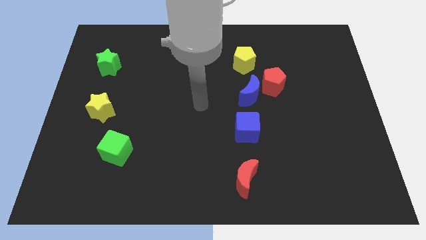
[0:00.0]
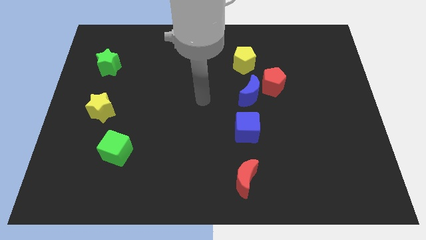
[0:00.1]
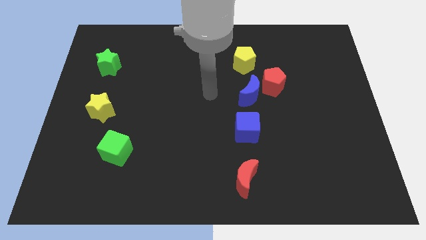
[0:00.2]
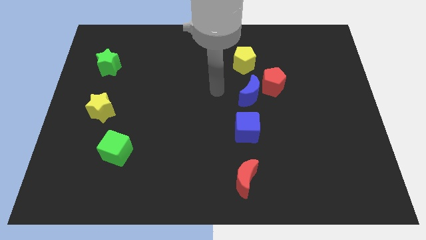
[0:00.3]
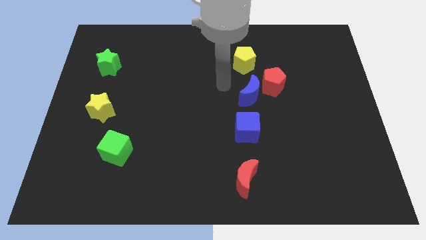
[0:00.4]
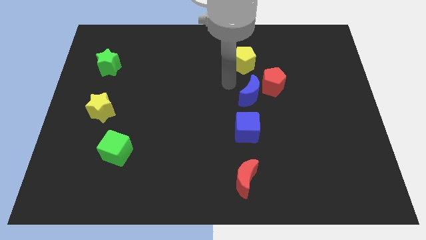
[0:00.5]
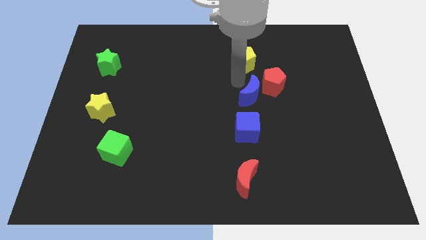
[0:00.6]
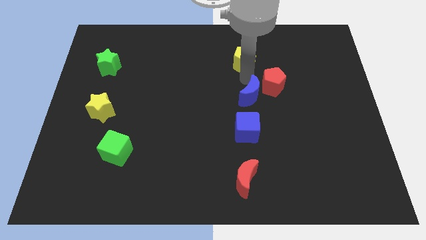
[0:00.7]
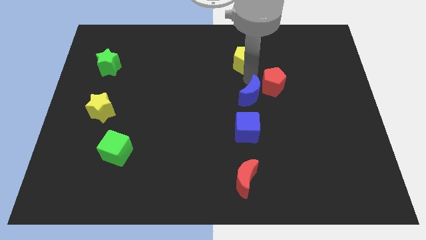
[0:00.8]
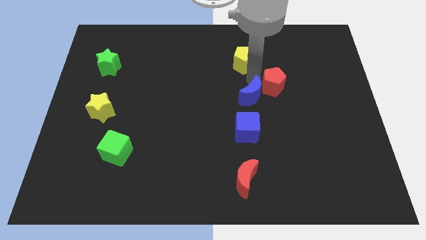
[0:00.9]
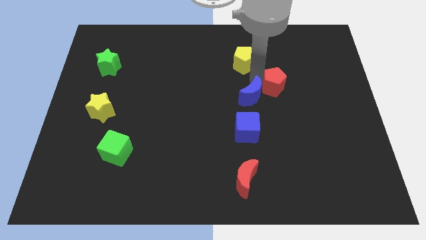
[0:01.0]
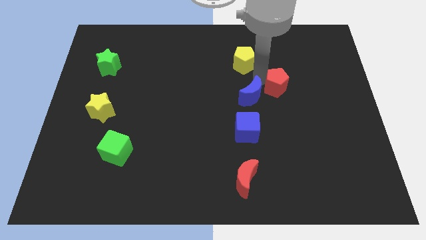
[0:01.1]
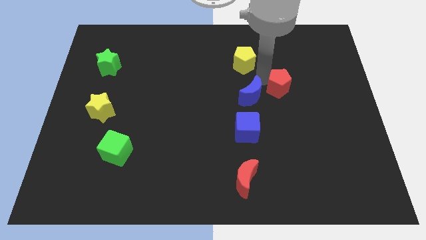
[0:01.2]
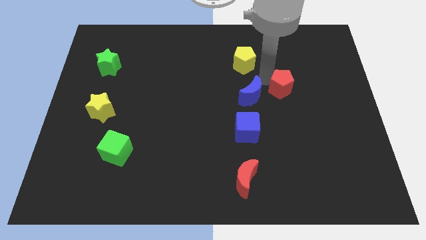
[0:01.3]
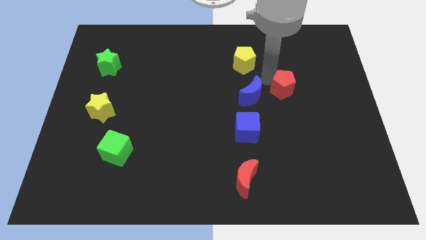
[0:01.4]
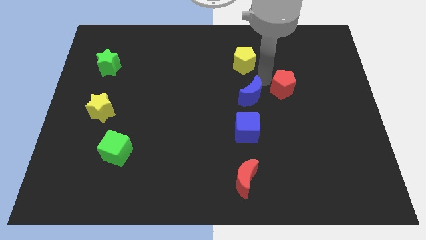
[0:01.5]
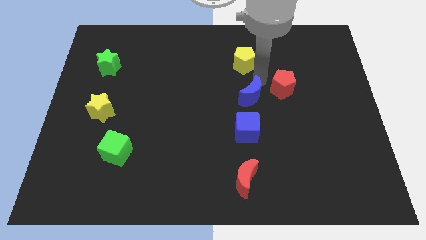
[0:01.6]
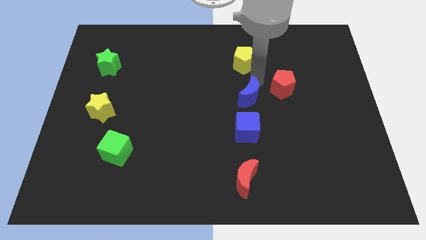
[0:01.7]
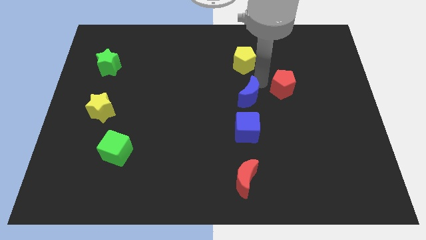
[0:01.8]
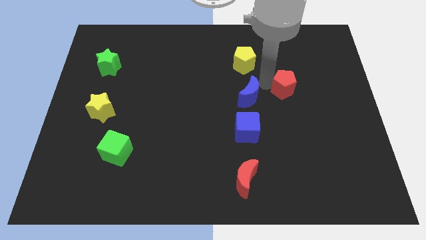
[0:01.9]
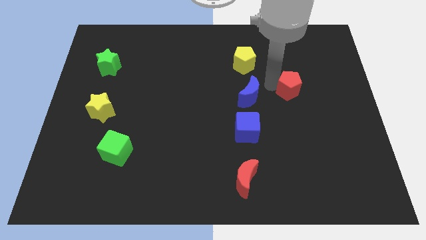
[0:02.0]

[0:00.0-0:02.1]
separate the red pentagon from the blue moon and yellow pentagon

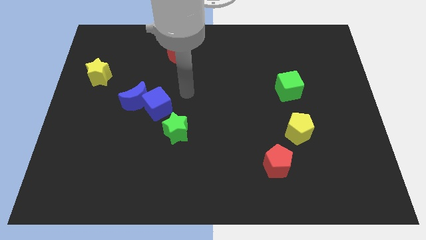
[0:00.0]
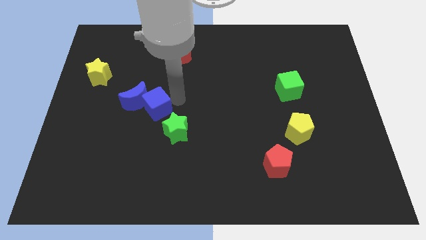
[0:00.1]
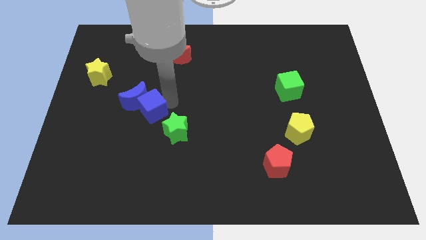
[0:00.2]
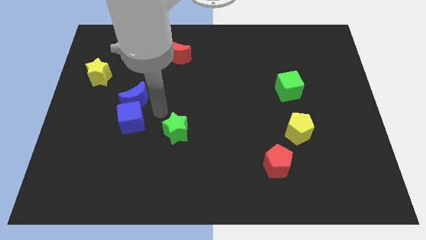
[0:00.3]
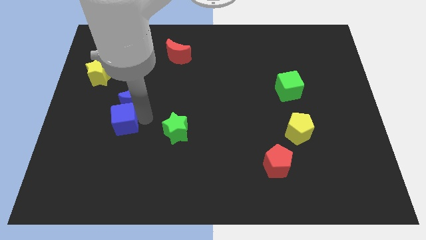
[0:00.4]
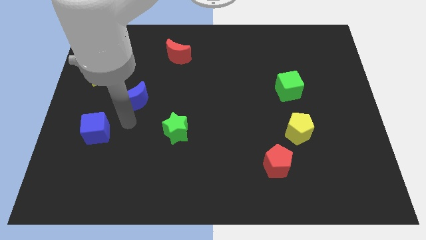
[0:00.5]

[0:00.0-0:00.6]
pull the blue moon apart from the blue cube

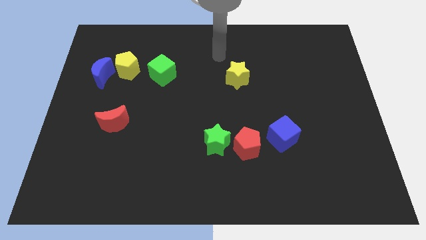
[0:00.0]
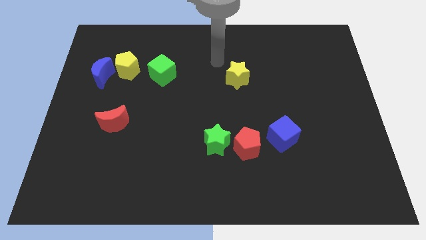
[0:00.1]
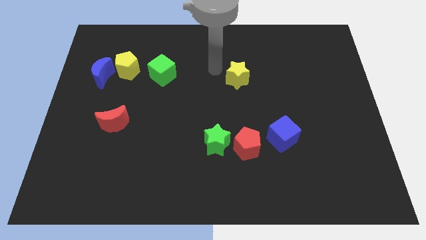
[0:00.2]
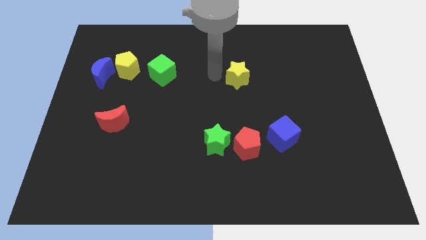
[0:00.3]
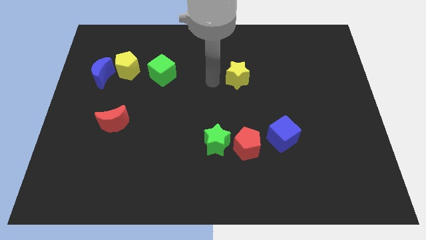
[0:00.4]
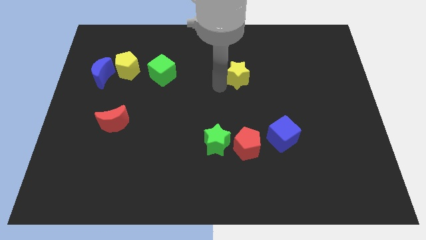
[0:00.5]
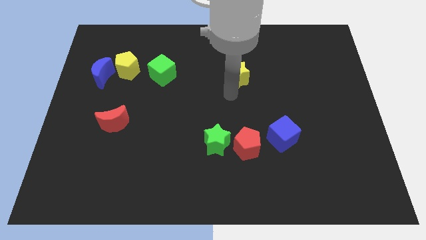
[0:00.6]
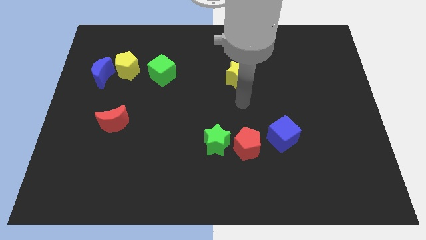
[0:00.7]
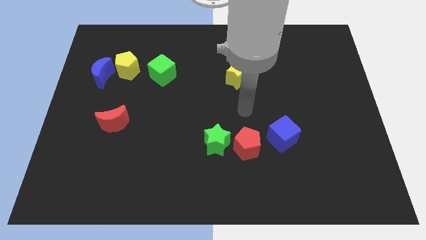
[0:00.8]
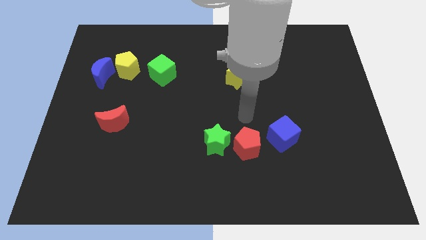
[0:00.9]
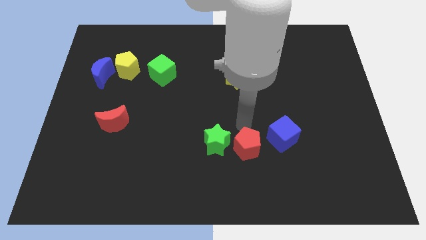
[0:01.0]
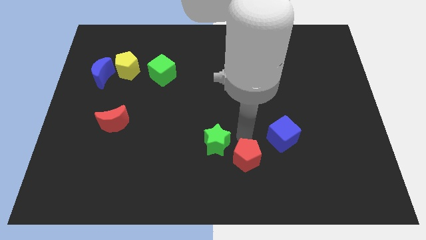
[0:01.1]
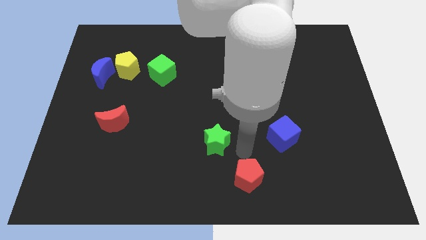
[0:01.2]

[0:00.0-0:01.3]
move the green star away from the red pentagon

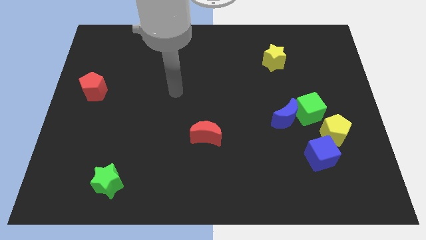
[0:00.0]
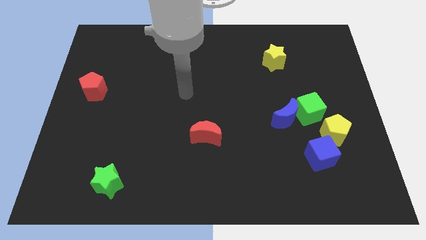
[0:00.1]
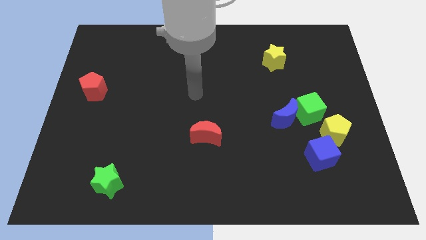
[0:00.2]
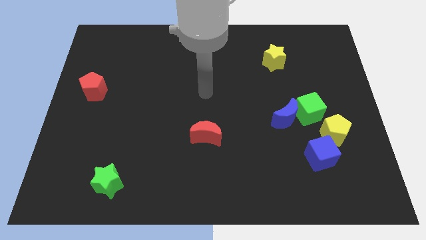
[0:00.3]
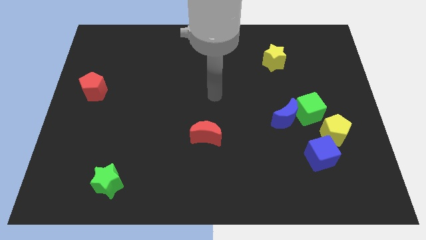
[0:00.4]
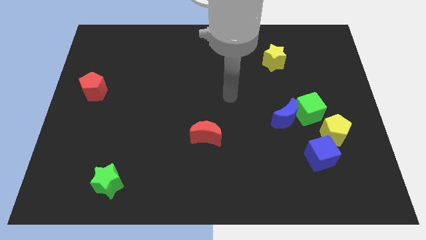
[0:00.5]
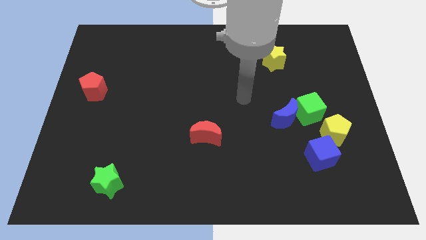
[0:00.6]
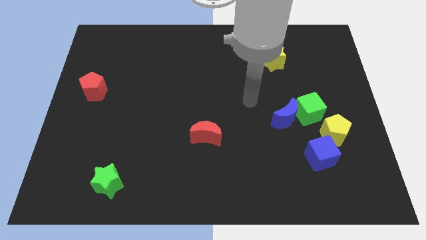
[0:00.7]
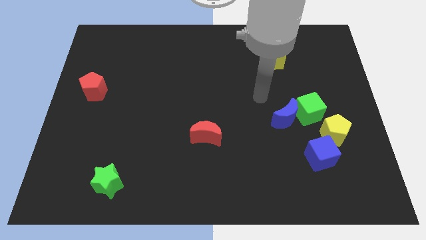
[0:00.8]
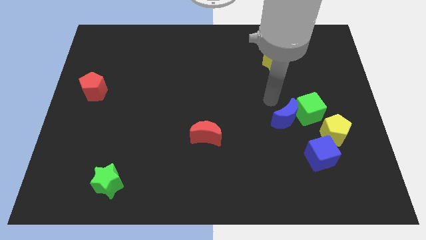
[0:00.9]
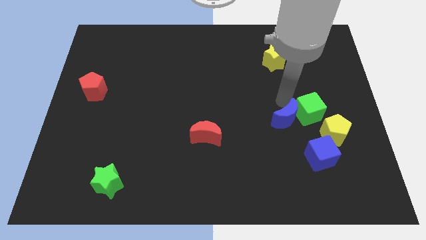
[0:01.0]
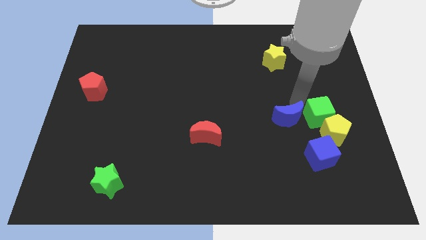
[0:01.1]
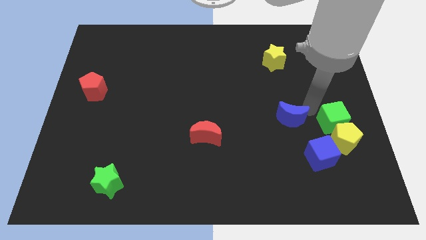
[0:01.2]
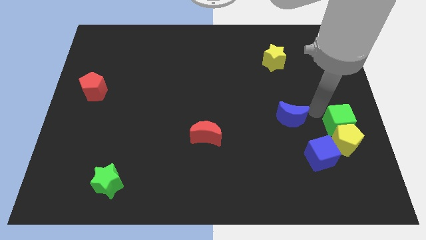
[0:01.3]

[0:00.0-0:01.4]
separate the blue moon from the green cube

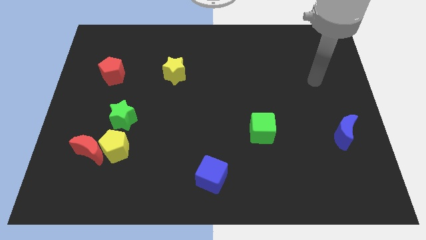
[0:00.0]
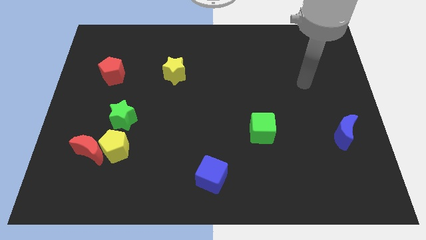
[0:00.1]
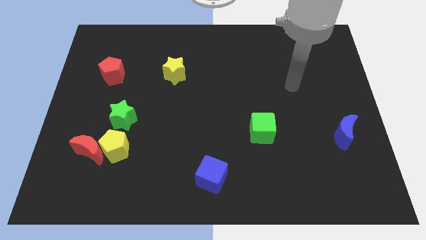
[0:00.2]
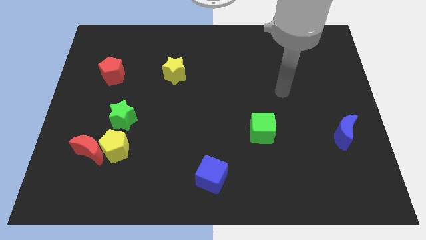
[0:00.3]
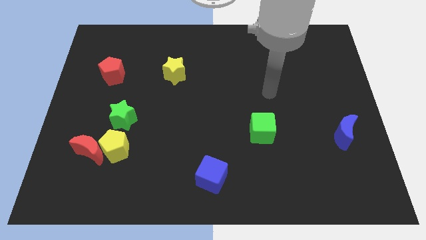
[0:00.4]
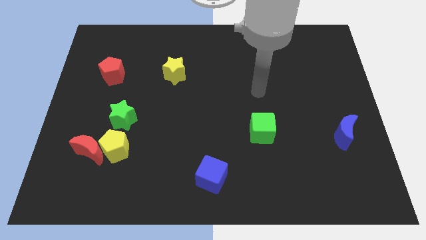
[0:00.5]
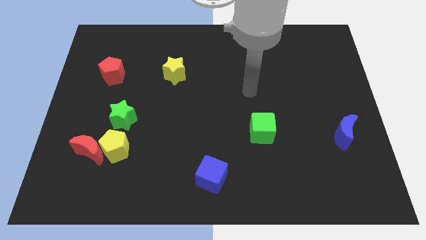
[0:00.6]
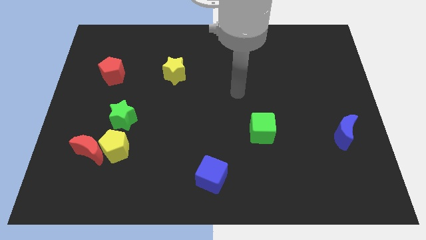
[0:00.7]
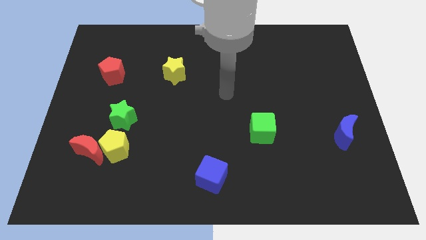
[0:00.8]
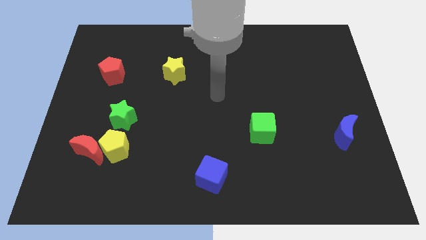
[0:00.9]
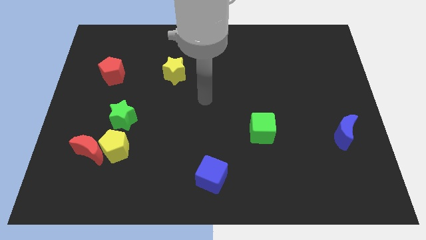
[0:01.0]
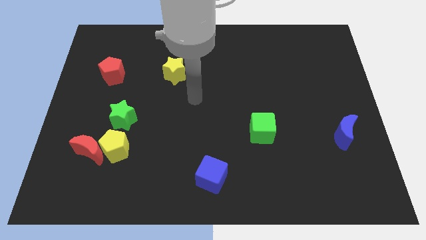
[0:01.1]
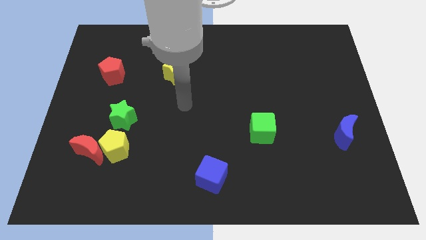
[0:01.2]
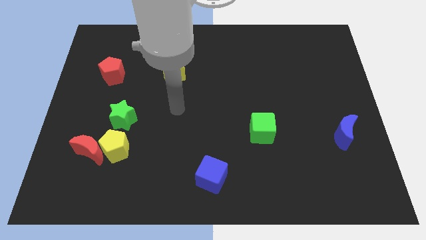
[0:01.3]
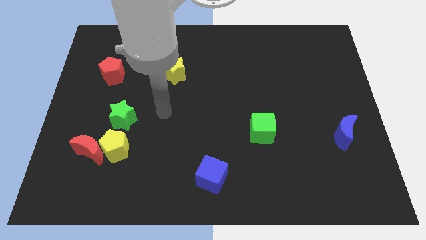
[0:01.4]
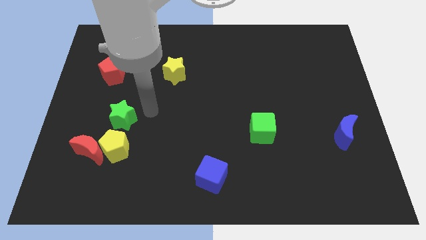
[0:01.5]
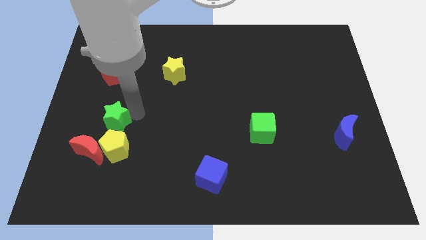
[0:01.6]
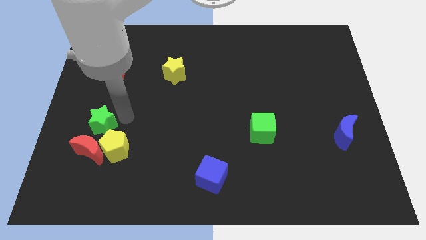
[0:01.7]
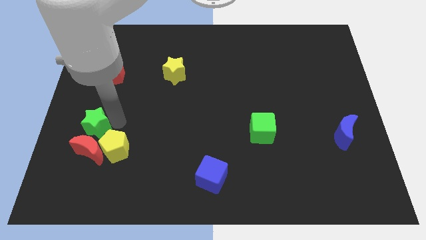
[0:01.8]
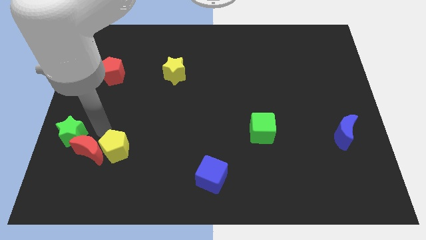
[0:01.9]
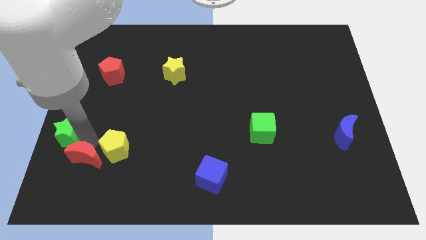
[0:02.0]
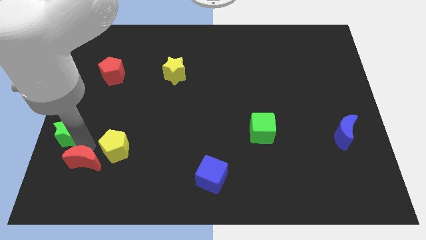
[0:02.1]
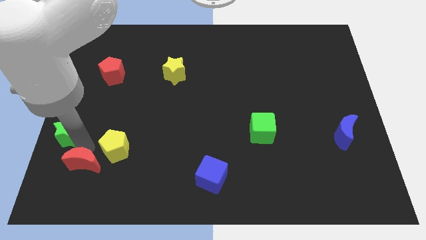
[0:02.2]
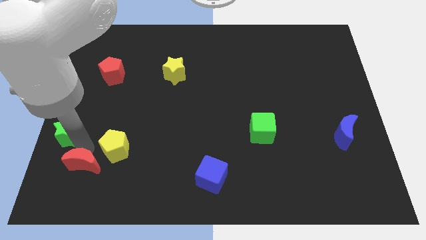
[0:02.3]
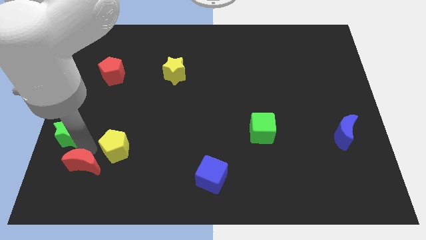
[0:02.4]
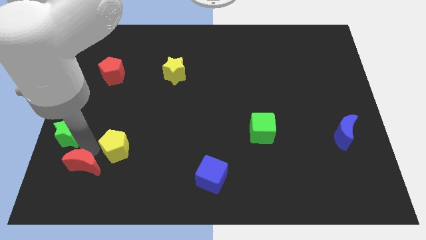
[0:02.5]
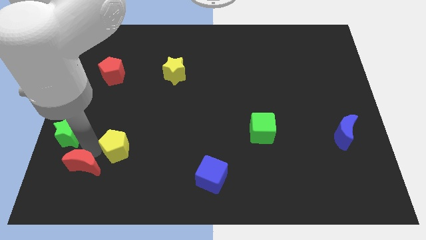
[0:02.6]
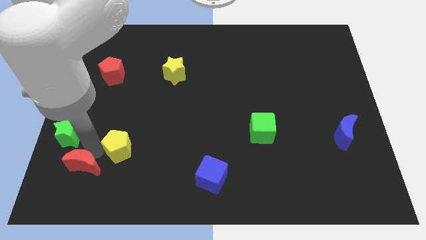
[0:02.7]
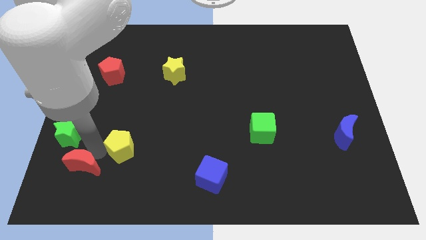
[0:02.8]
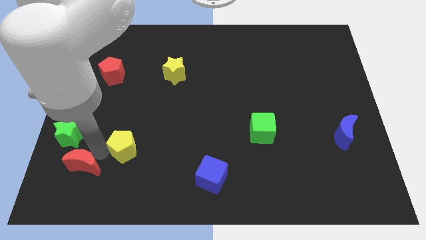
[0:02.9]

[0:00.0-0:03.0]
separate the yellow pentagon from the red moon and green star

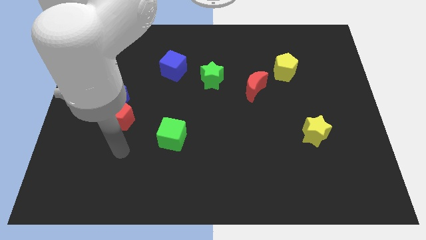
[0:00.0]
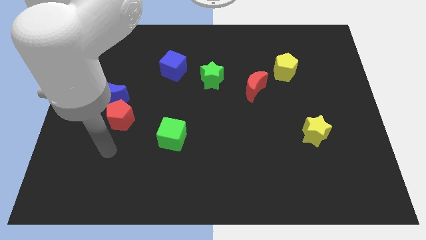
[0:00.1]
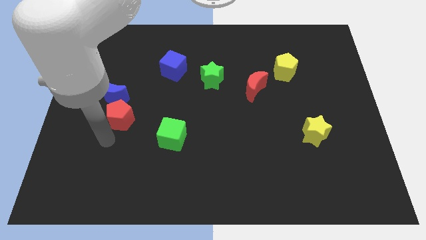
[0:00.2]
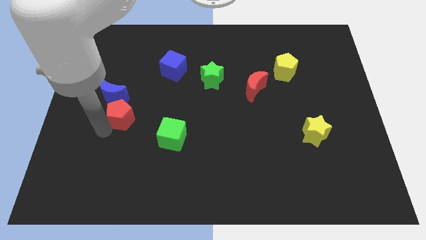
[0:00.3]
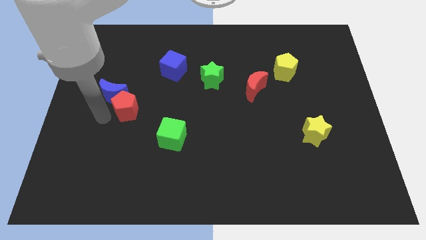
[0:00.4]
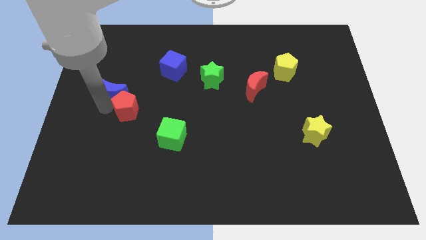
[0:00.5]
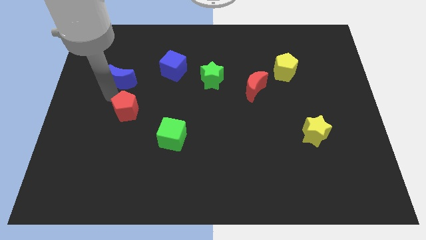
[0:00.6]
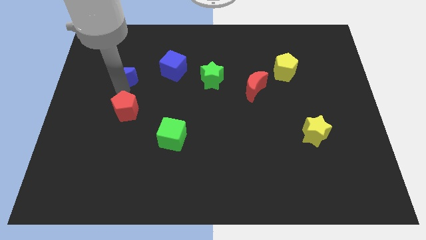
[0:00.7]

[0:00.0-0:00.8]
move the red pentagon away from the blue moon

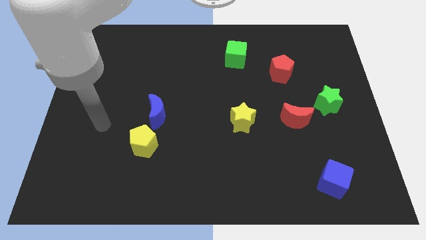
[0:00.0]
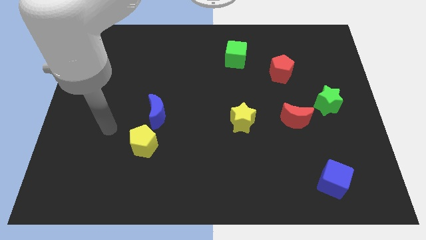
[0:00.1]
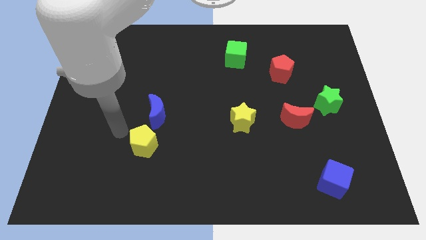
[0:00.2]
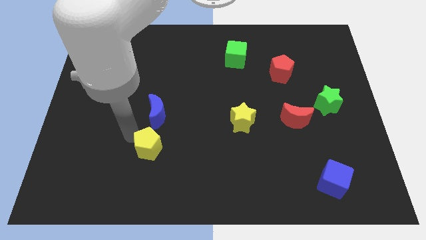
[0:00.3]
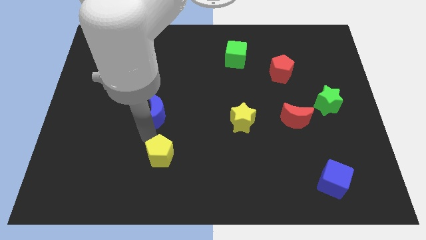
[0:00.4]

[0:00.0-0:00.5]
move the blue moon away from the yellow pentagon
